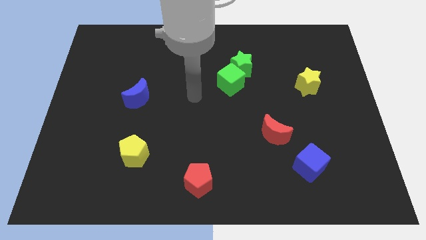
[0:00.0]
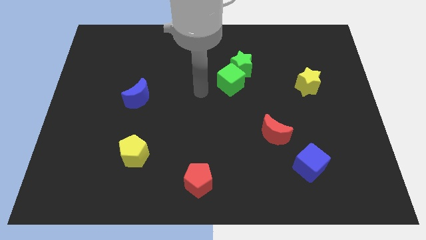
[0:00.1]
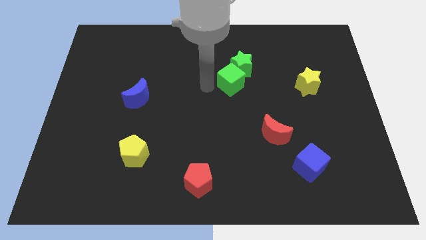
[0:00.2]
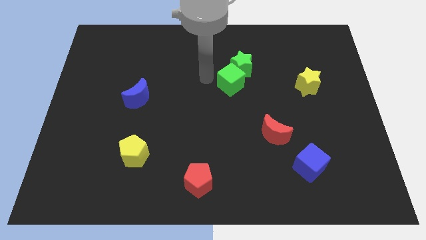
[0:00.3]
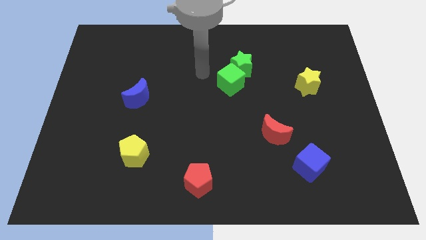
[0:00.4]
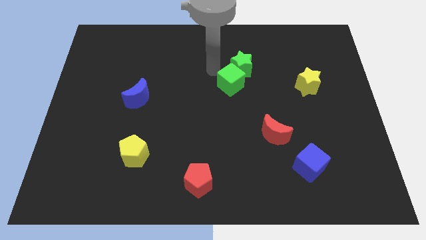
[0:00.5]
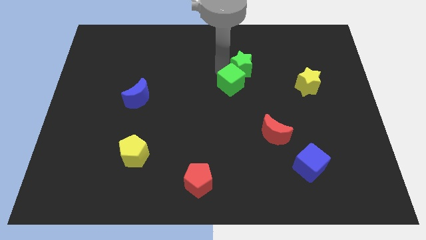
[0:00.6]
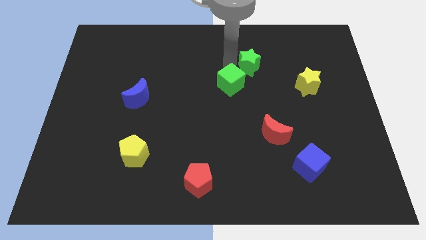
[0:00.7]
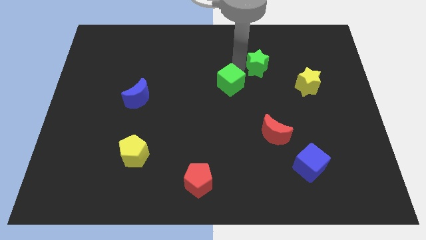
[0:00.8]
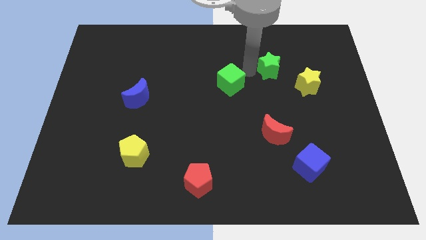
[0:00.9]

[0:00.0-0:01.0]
move the green cube away from the green star

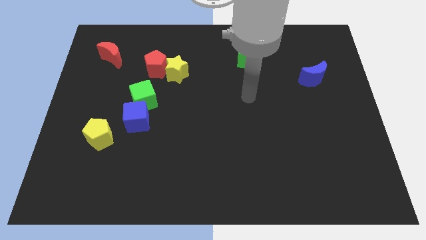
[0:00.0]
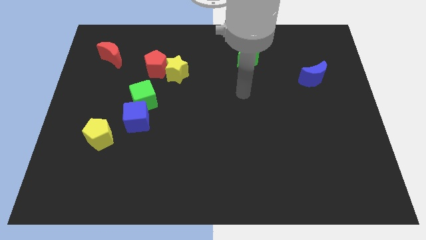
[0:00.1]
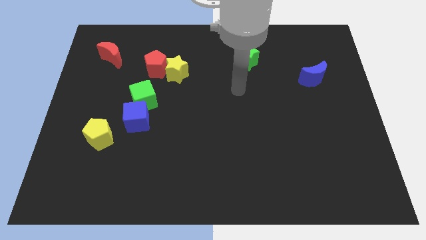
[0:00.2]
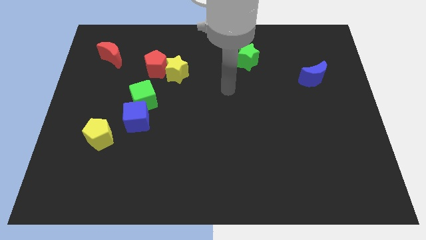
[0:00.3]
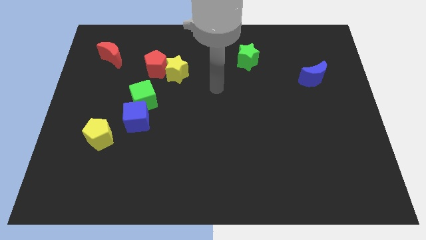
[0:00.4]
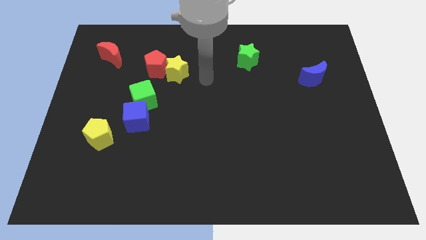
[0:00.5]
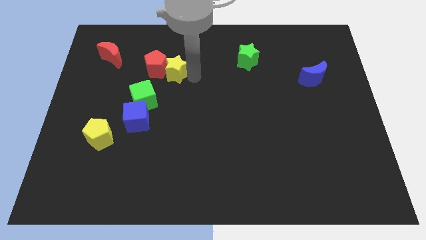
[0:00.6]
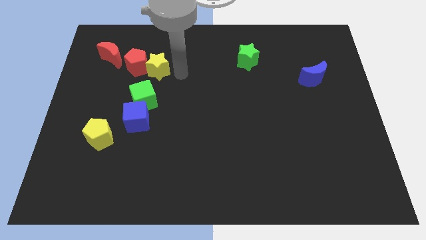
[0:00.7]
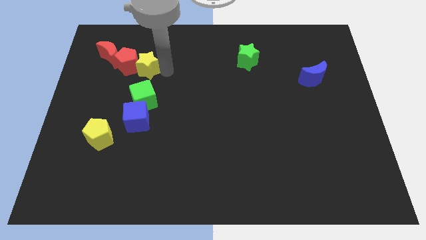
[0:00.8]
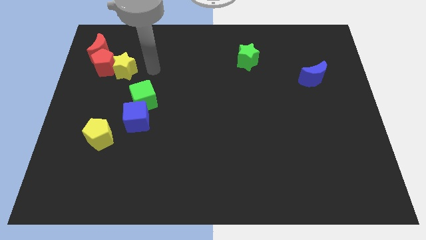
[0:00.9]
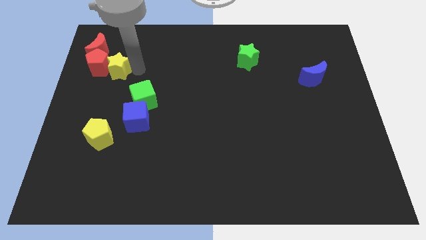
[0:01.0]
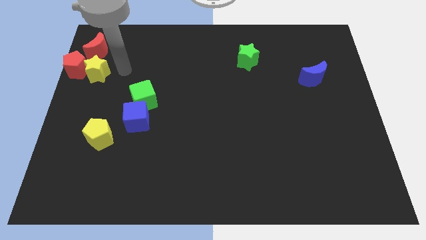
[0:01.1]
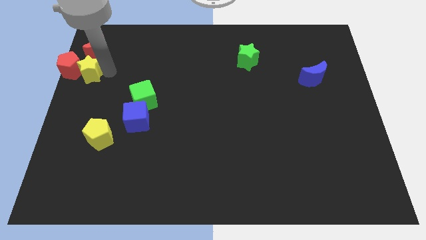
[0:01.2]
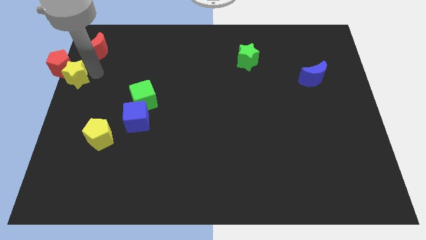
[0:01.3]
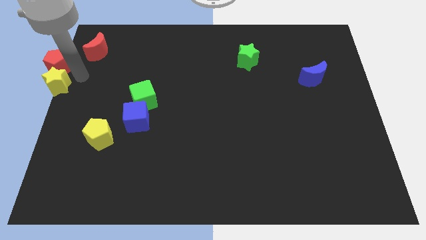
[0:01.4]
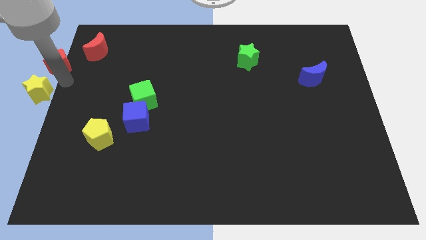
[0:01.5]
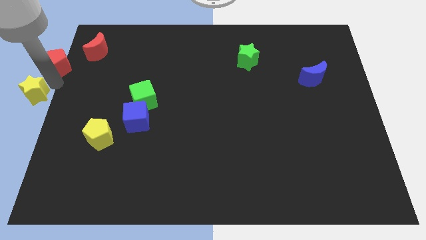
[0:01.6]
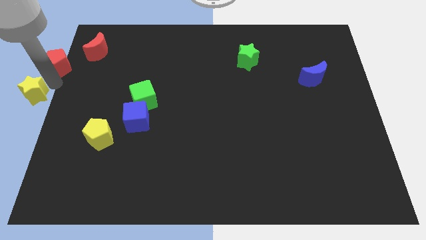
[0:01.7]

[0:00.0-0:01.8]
separate the red pentagon from the yellow star

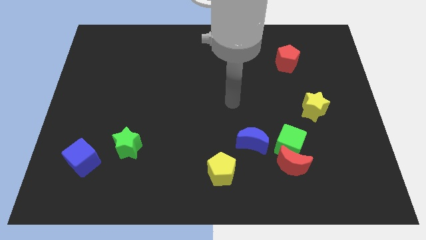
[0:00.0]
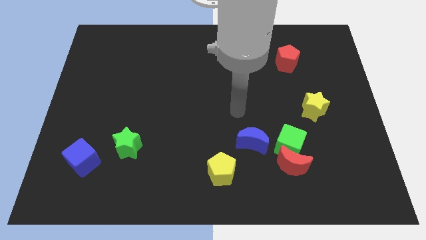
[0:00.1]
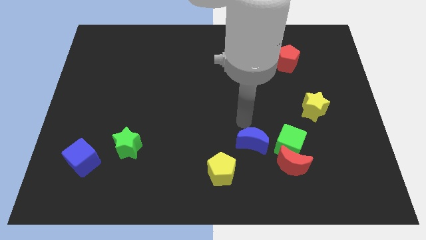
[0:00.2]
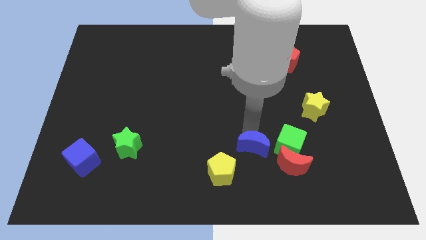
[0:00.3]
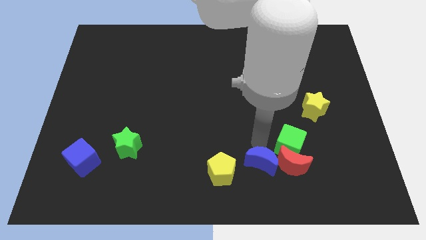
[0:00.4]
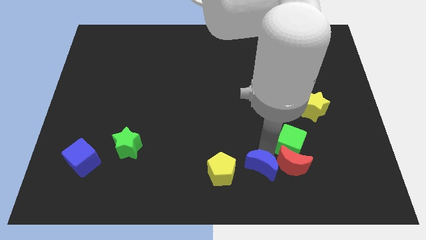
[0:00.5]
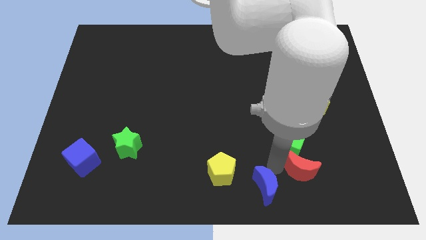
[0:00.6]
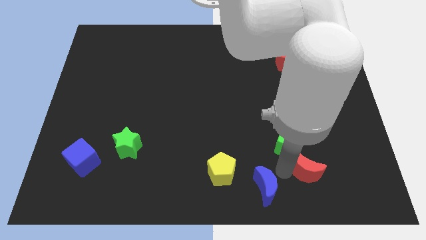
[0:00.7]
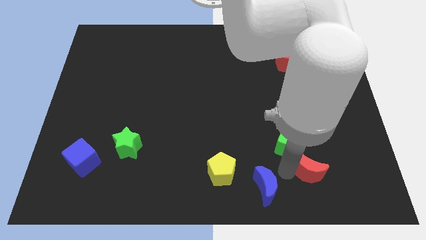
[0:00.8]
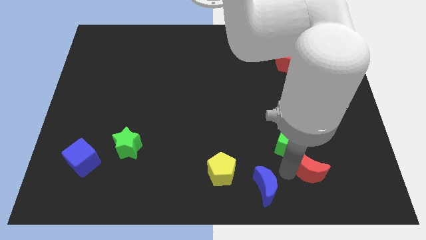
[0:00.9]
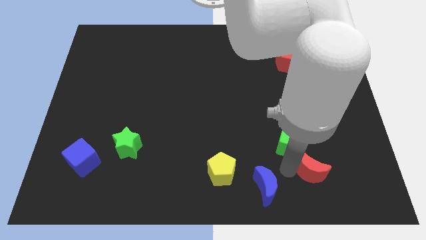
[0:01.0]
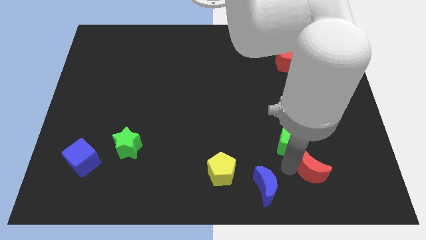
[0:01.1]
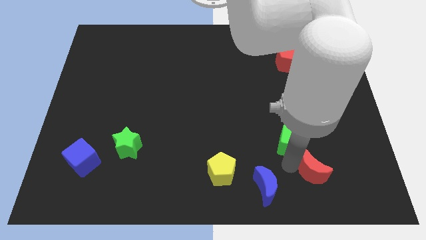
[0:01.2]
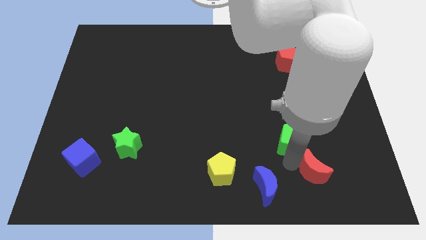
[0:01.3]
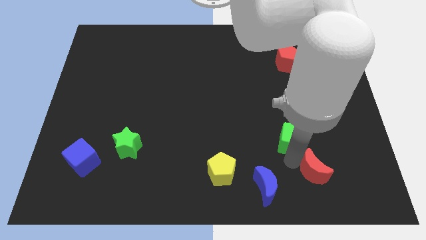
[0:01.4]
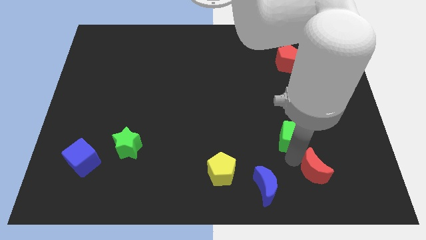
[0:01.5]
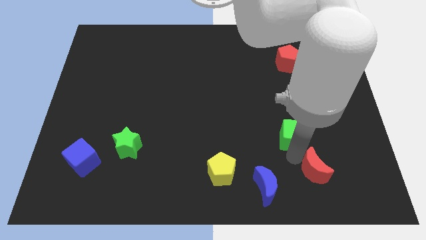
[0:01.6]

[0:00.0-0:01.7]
separate the green cube from the red moon and blue moon

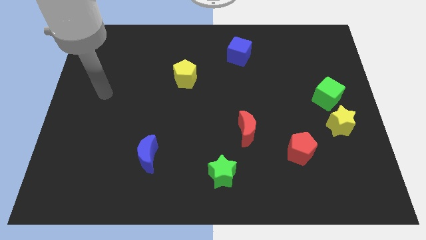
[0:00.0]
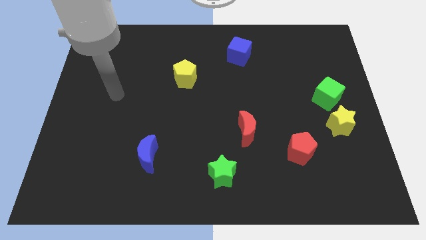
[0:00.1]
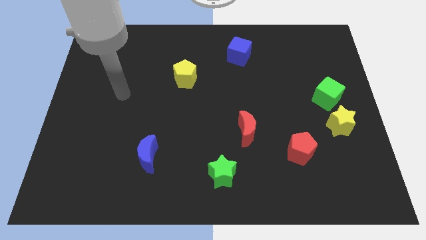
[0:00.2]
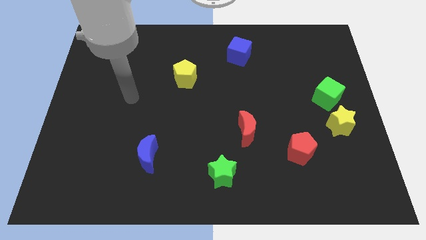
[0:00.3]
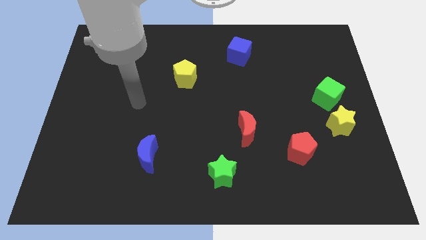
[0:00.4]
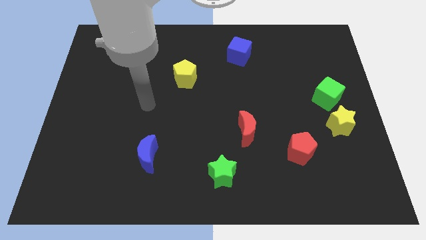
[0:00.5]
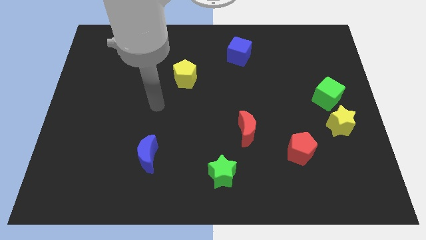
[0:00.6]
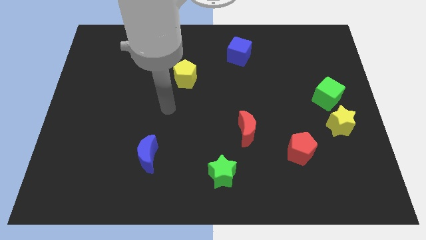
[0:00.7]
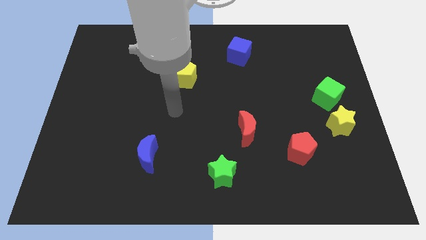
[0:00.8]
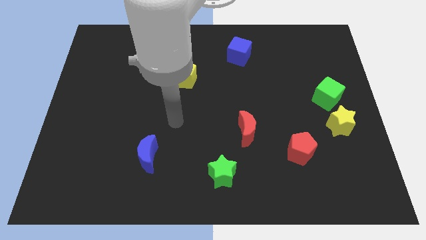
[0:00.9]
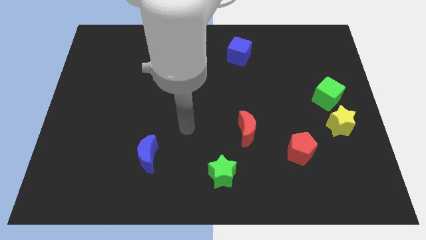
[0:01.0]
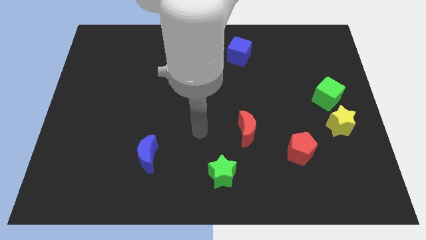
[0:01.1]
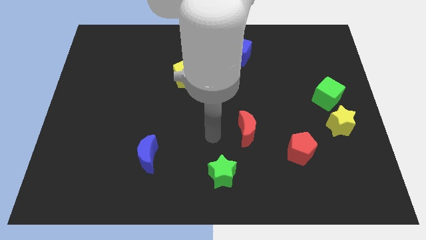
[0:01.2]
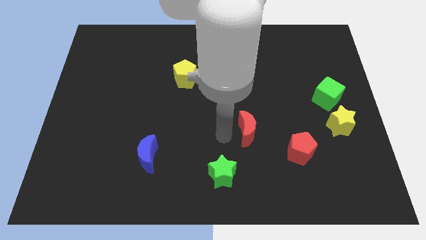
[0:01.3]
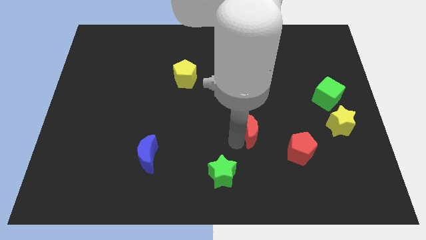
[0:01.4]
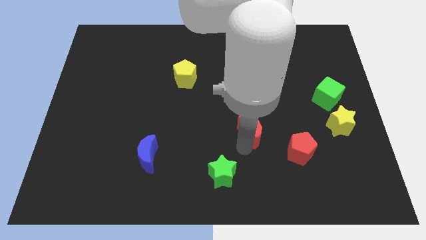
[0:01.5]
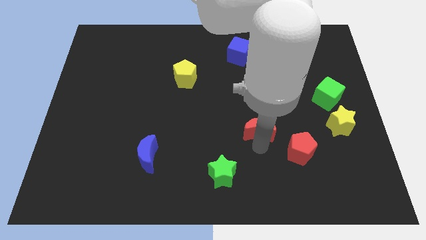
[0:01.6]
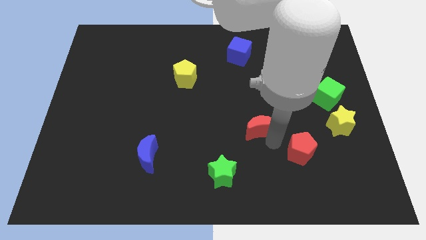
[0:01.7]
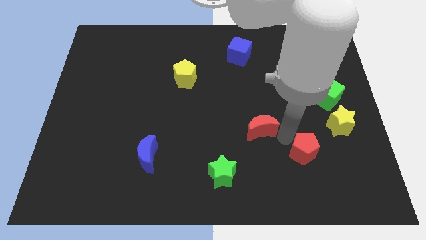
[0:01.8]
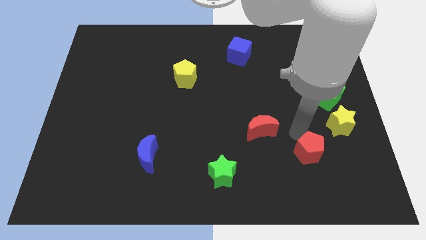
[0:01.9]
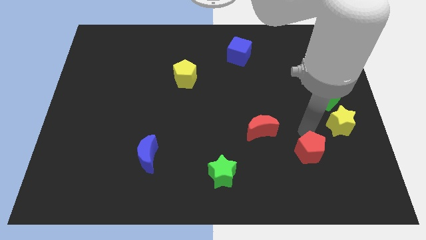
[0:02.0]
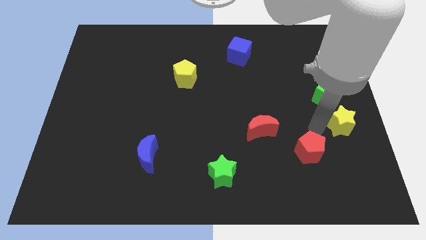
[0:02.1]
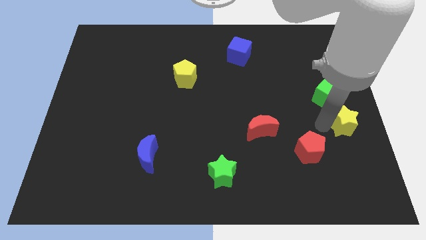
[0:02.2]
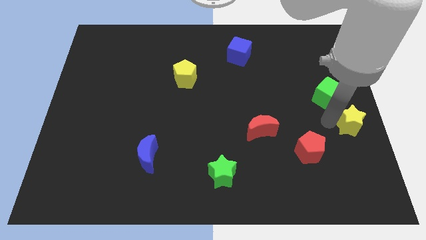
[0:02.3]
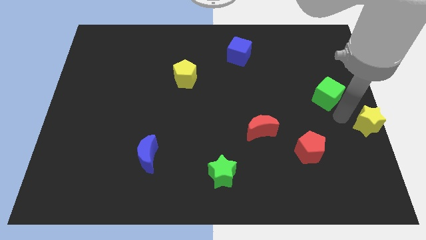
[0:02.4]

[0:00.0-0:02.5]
separate the green cube from the yellow star

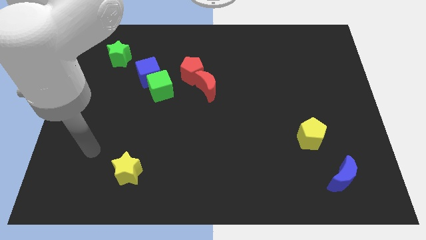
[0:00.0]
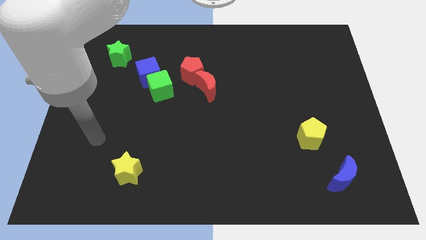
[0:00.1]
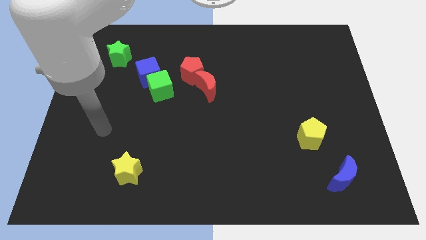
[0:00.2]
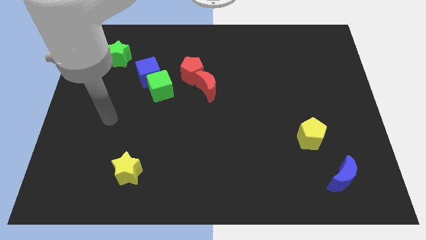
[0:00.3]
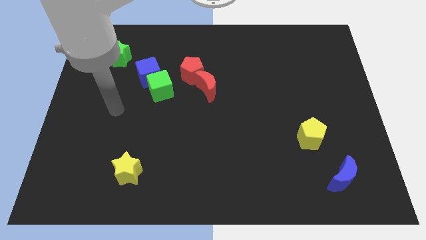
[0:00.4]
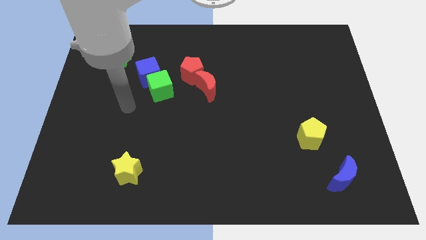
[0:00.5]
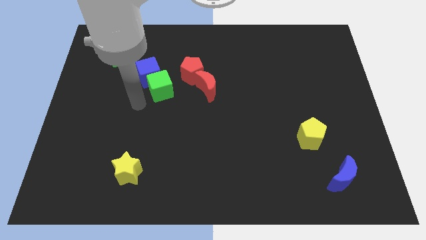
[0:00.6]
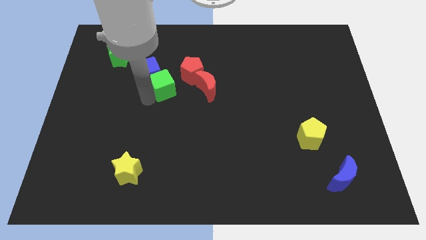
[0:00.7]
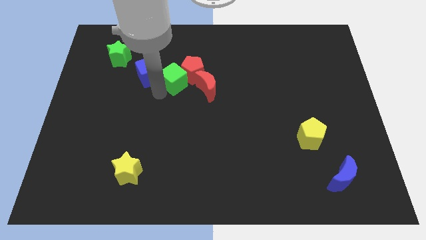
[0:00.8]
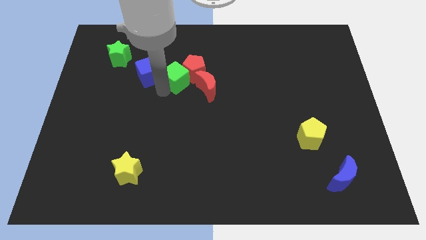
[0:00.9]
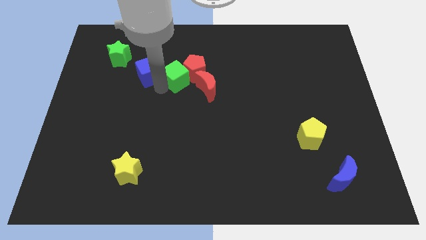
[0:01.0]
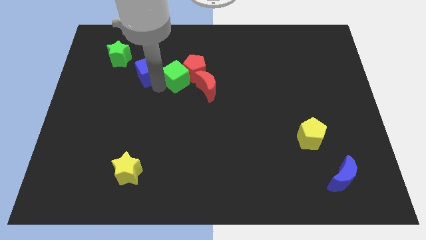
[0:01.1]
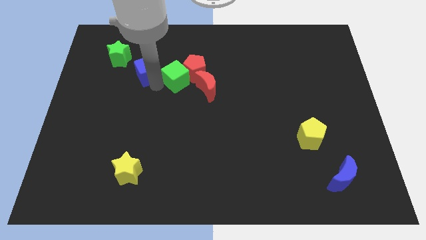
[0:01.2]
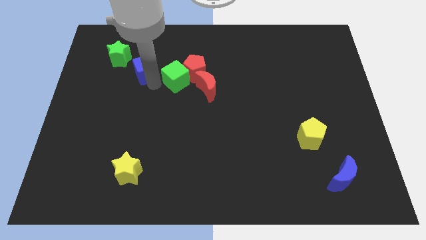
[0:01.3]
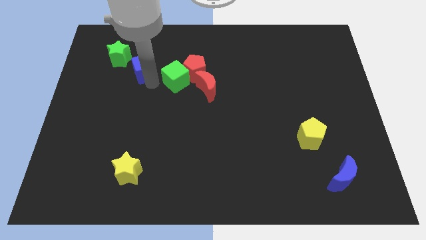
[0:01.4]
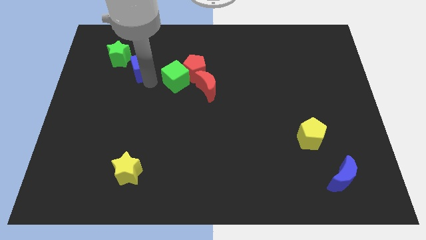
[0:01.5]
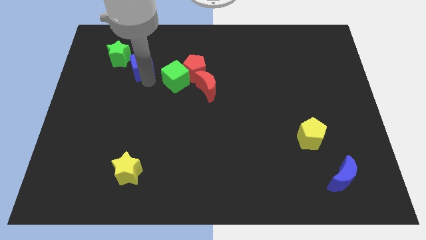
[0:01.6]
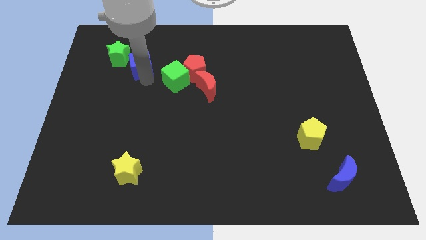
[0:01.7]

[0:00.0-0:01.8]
pull the blue cube apart from the green cube

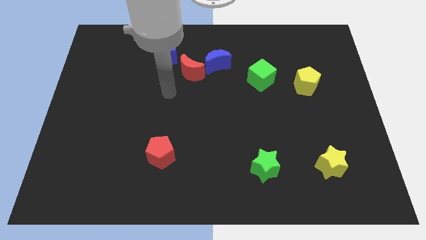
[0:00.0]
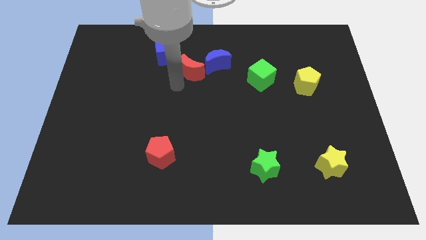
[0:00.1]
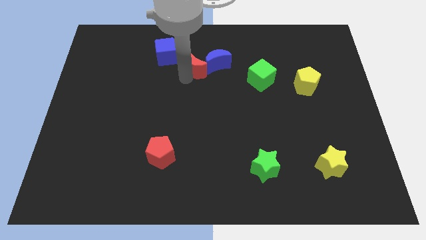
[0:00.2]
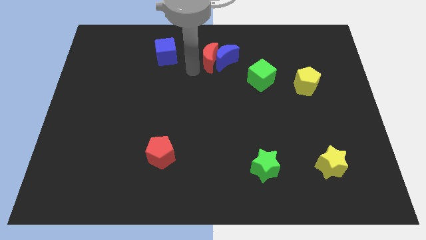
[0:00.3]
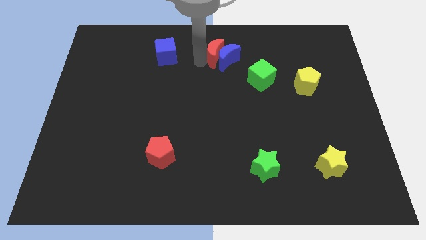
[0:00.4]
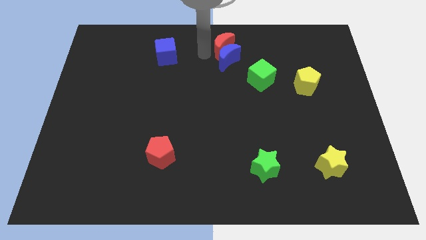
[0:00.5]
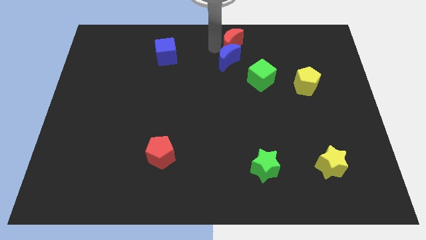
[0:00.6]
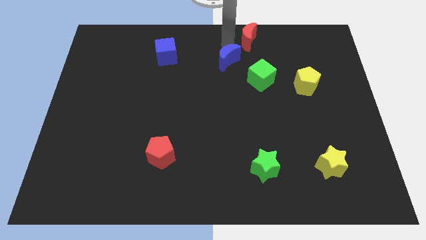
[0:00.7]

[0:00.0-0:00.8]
pull the blue moon apart from the red moon
